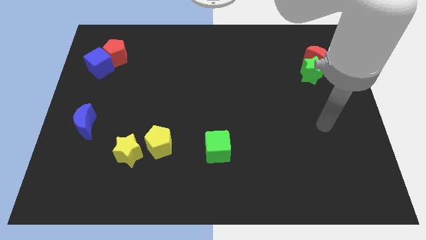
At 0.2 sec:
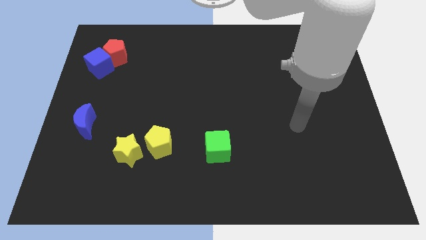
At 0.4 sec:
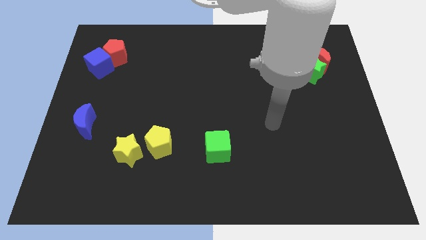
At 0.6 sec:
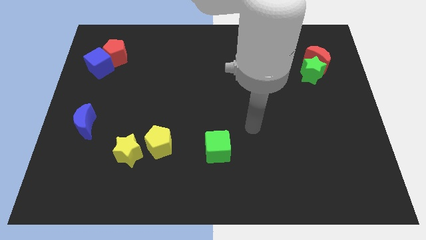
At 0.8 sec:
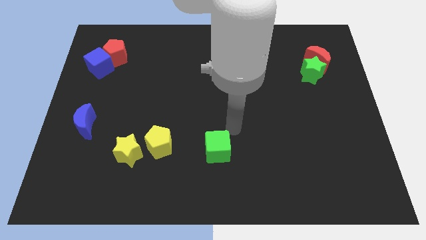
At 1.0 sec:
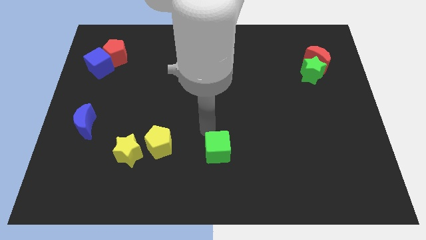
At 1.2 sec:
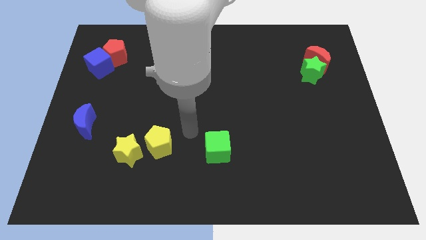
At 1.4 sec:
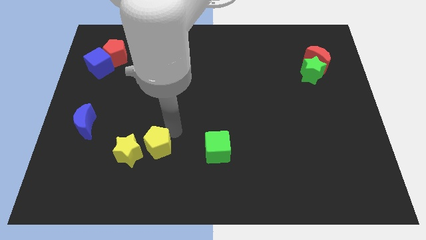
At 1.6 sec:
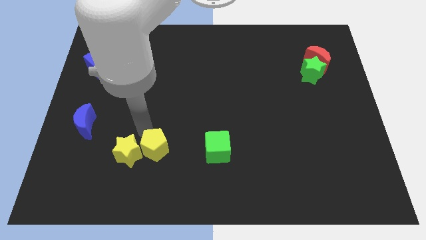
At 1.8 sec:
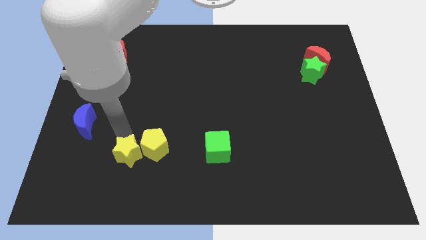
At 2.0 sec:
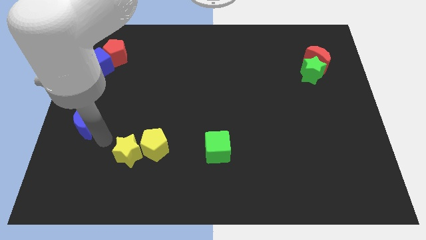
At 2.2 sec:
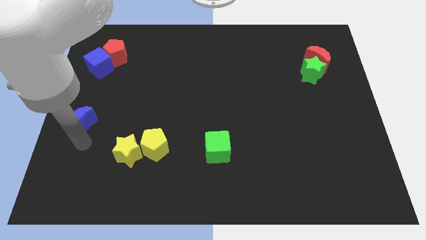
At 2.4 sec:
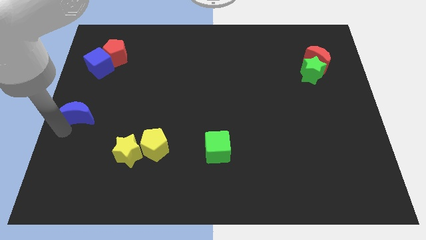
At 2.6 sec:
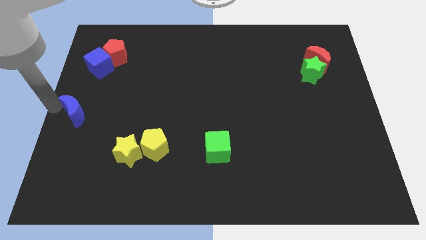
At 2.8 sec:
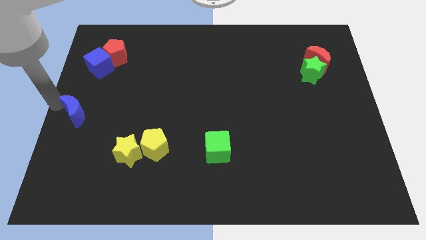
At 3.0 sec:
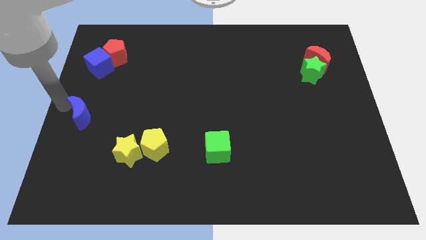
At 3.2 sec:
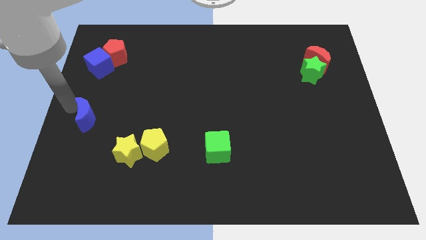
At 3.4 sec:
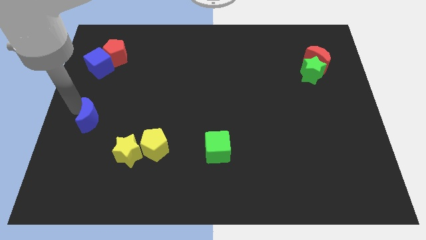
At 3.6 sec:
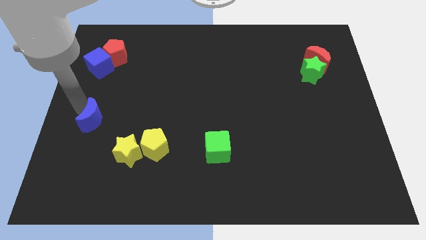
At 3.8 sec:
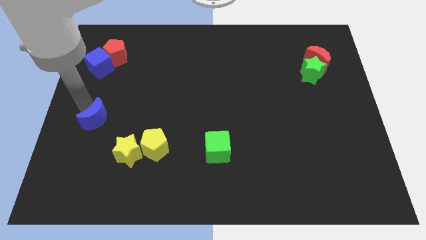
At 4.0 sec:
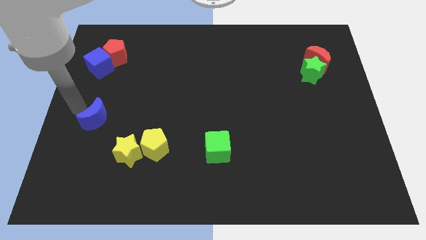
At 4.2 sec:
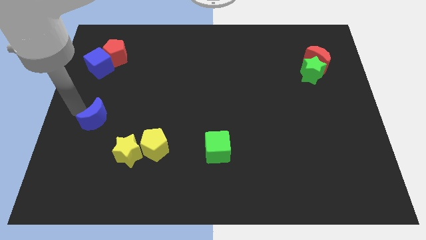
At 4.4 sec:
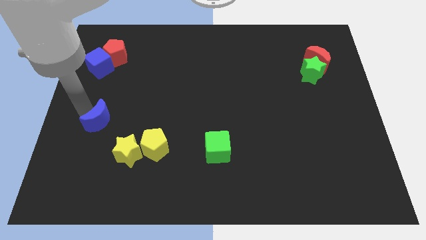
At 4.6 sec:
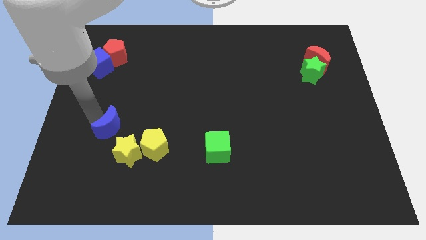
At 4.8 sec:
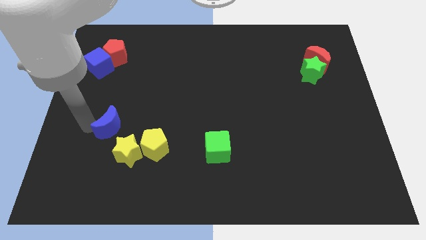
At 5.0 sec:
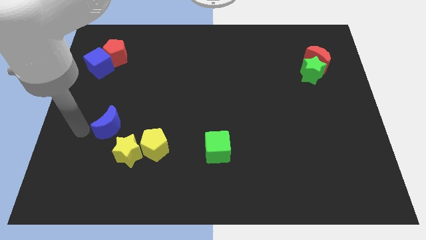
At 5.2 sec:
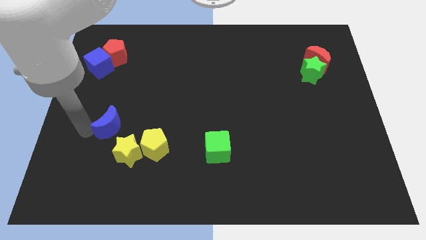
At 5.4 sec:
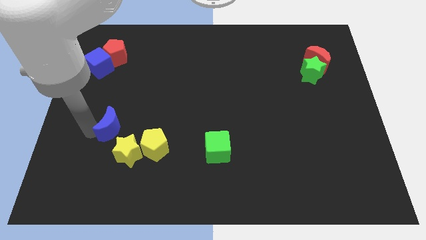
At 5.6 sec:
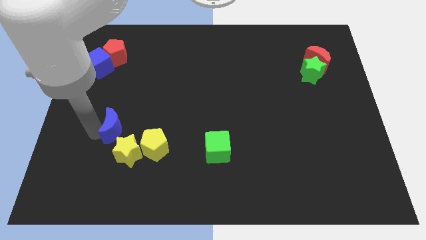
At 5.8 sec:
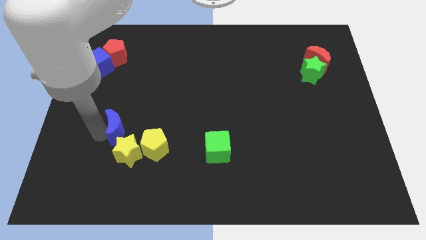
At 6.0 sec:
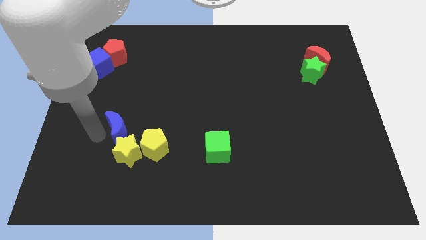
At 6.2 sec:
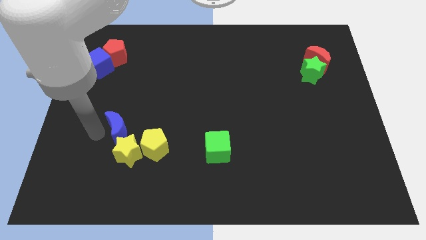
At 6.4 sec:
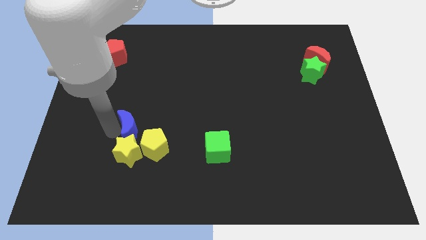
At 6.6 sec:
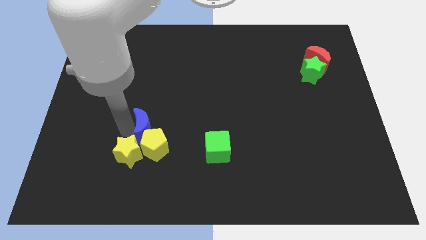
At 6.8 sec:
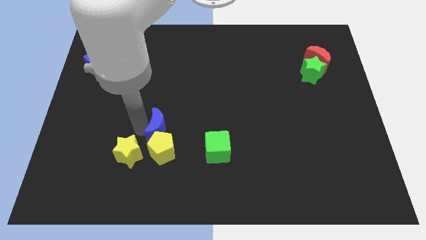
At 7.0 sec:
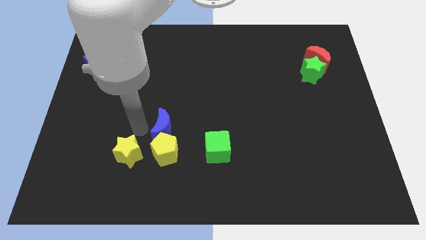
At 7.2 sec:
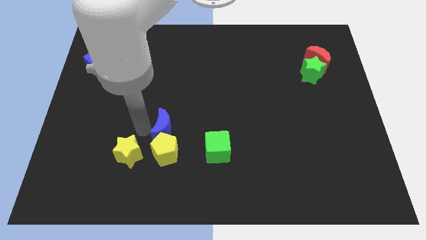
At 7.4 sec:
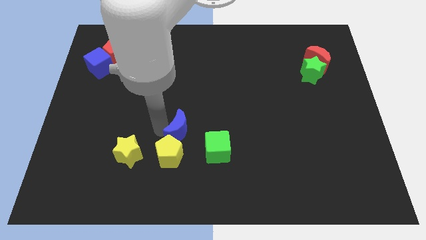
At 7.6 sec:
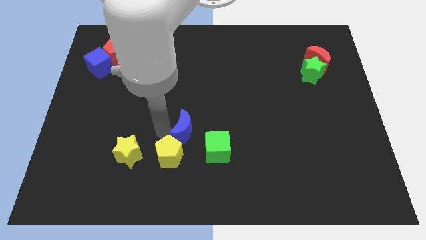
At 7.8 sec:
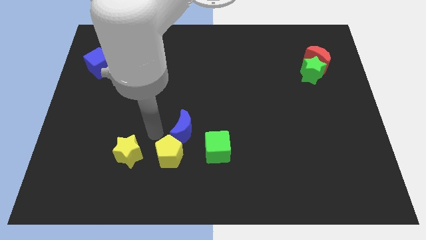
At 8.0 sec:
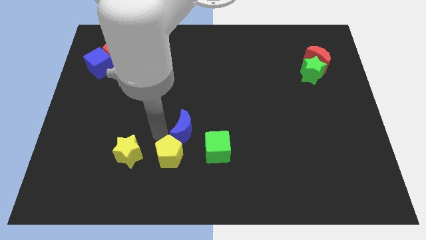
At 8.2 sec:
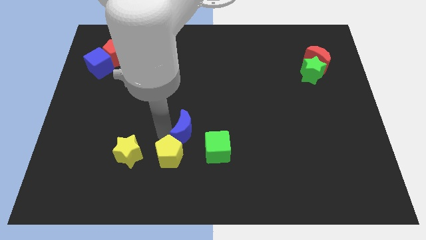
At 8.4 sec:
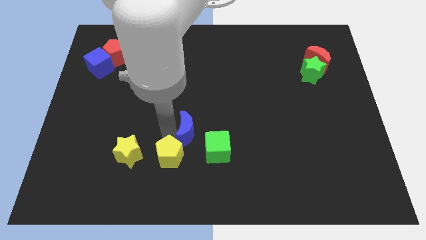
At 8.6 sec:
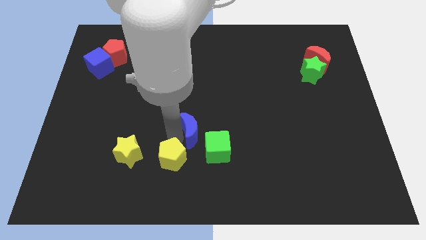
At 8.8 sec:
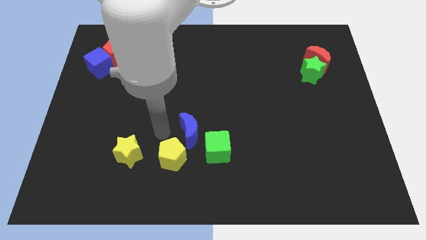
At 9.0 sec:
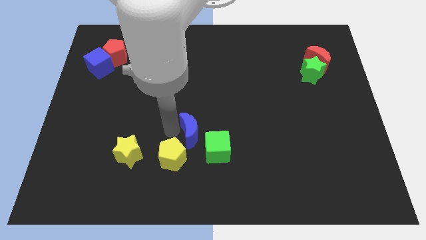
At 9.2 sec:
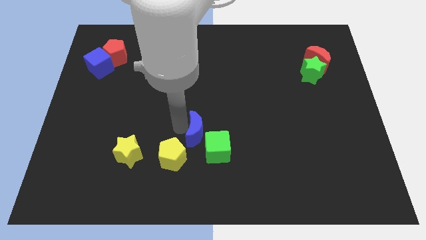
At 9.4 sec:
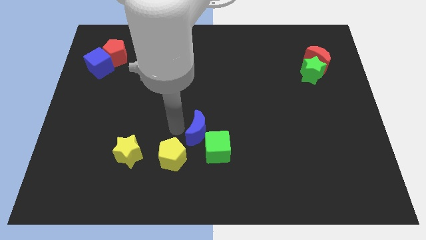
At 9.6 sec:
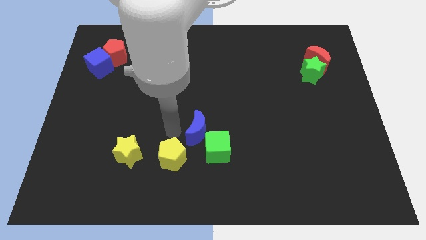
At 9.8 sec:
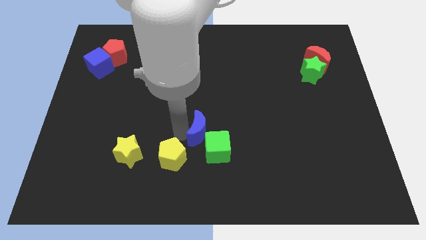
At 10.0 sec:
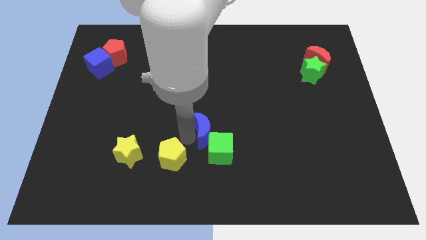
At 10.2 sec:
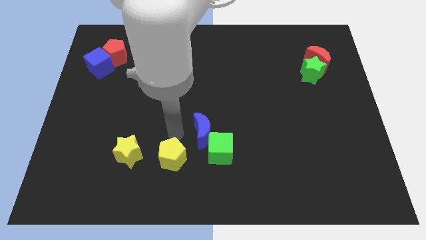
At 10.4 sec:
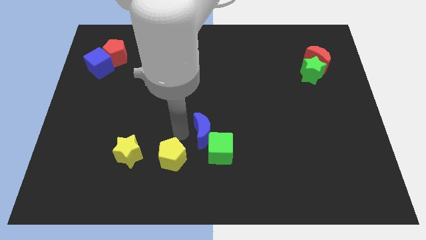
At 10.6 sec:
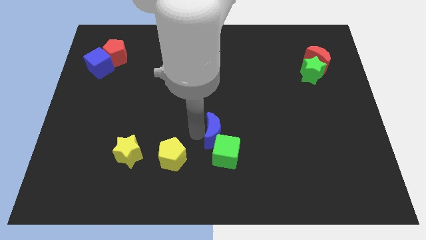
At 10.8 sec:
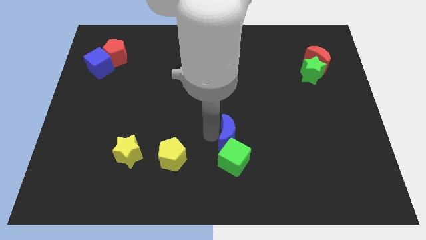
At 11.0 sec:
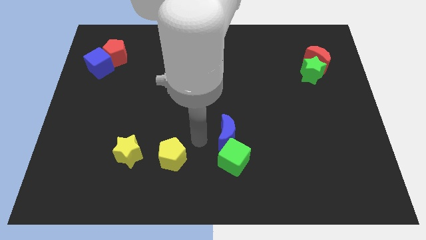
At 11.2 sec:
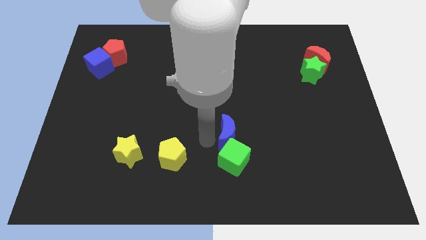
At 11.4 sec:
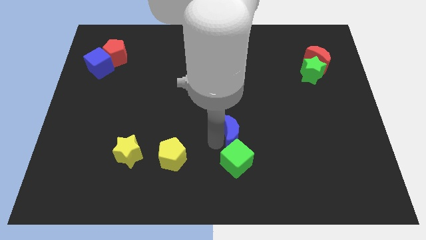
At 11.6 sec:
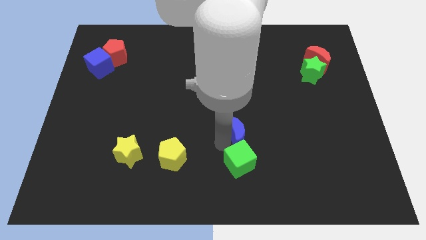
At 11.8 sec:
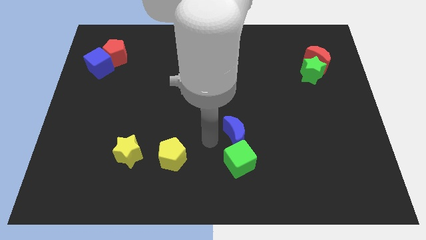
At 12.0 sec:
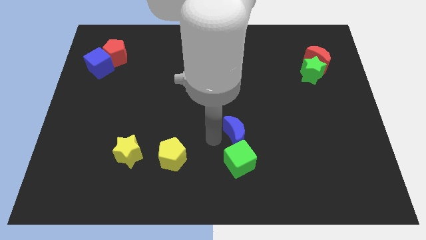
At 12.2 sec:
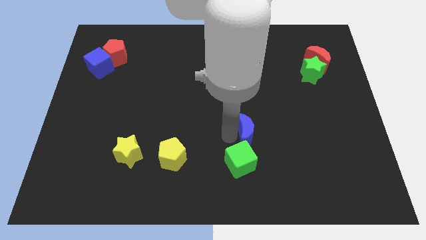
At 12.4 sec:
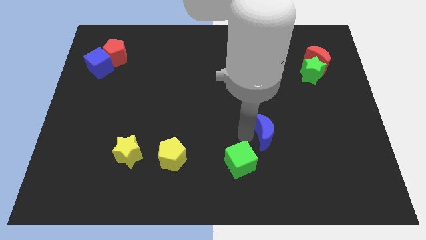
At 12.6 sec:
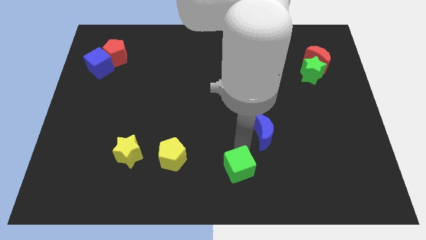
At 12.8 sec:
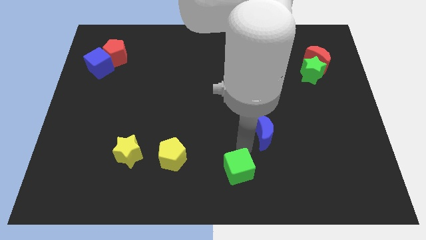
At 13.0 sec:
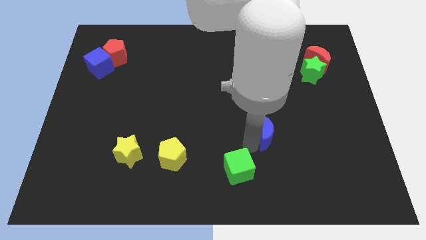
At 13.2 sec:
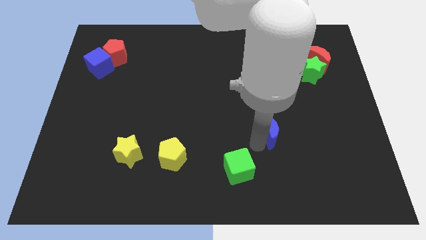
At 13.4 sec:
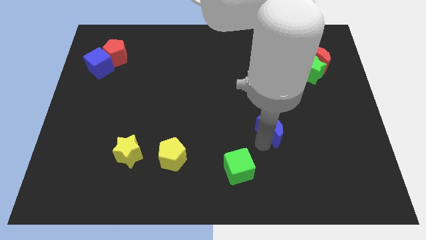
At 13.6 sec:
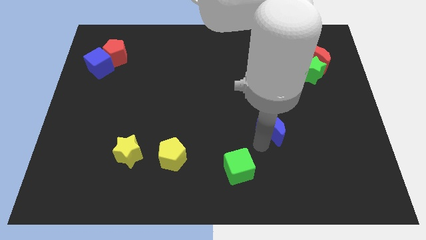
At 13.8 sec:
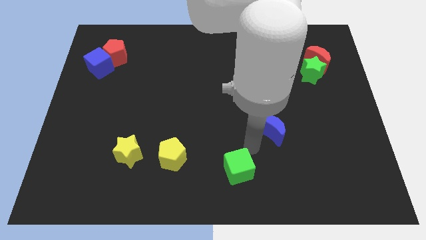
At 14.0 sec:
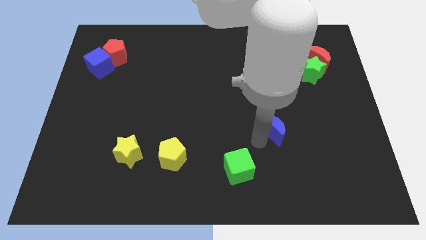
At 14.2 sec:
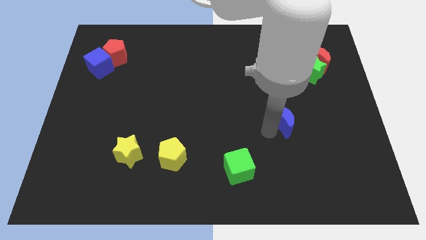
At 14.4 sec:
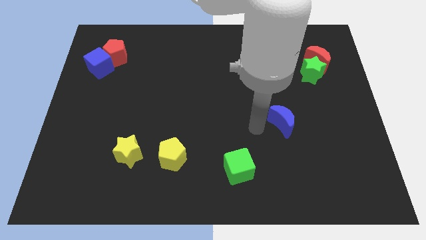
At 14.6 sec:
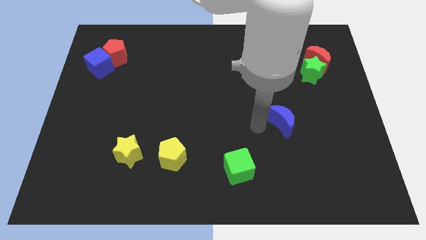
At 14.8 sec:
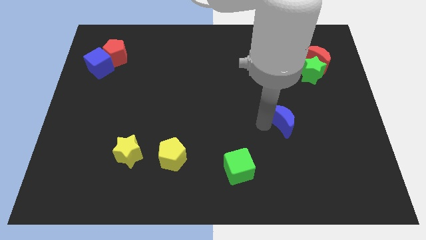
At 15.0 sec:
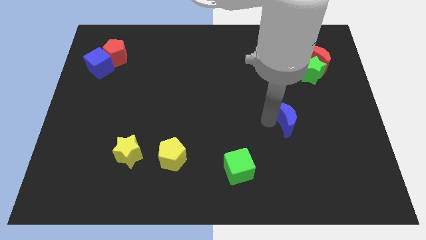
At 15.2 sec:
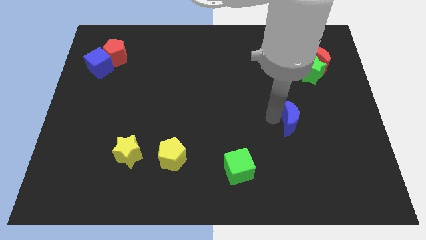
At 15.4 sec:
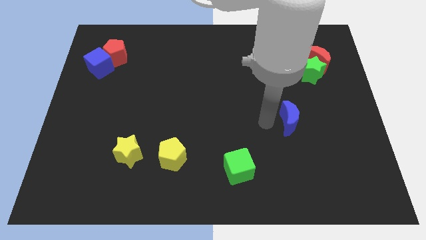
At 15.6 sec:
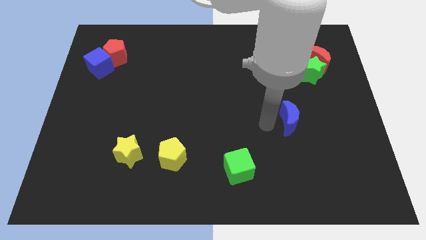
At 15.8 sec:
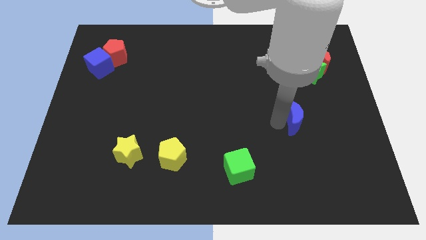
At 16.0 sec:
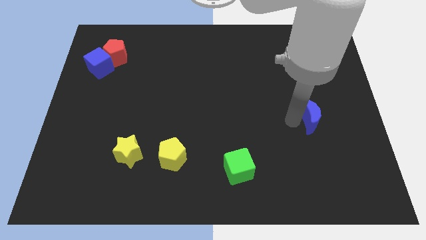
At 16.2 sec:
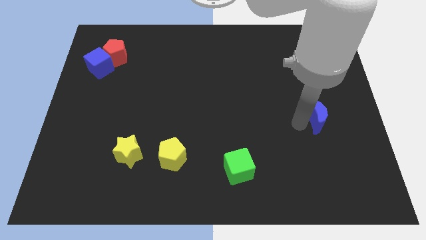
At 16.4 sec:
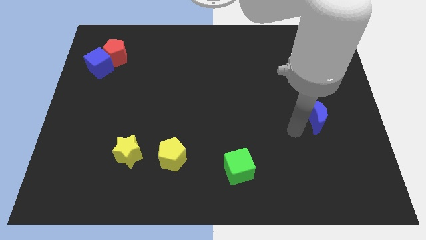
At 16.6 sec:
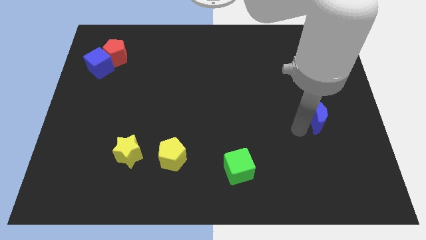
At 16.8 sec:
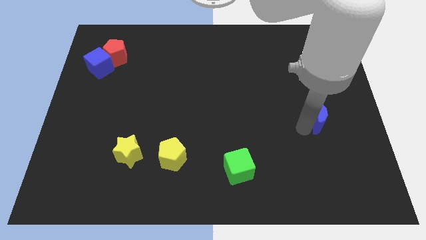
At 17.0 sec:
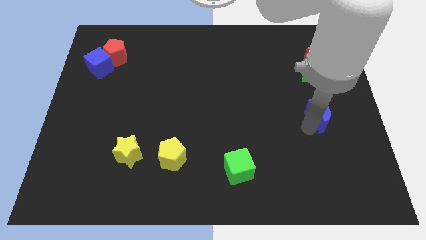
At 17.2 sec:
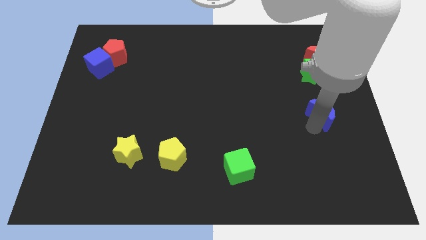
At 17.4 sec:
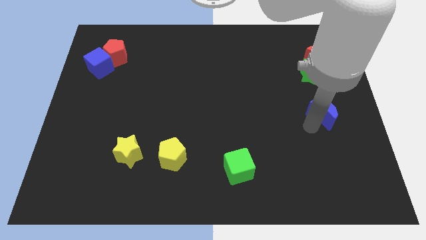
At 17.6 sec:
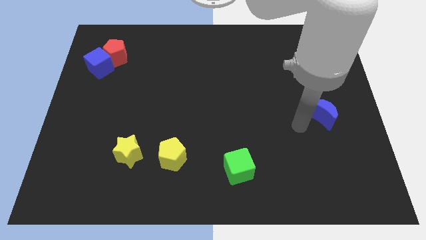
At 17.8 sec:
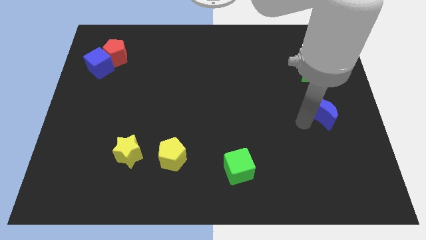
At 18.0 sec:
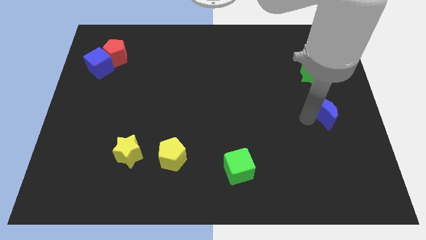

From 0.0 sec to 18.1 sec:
slide the blue moon to the center right
